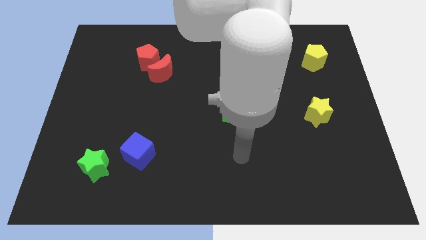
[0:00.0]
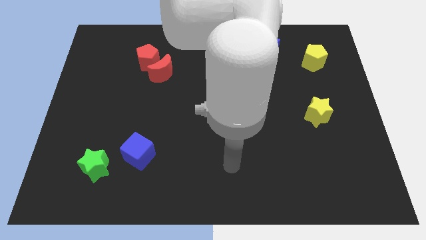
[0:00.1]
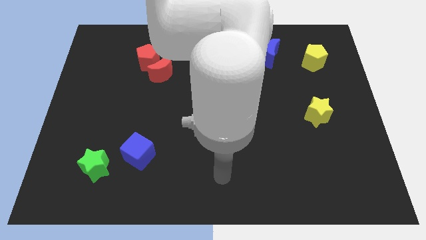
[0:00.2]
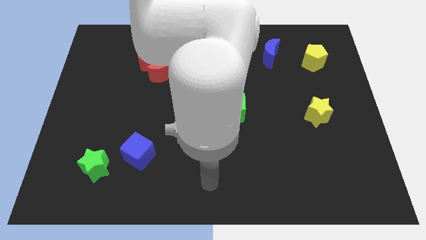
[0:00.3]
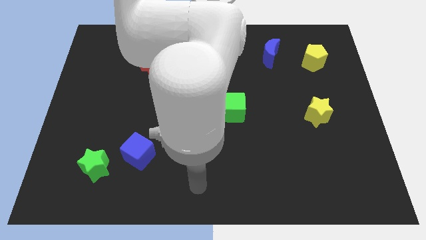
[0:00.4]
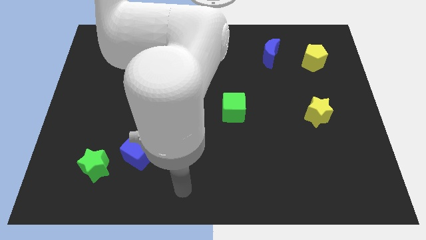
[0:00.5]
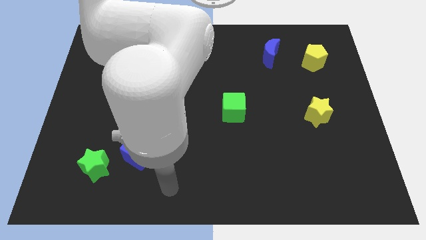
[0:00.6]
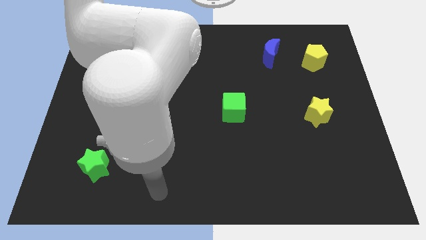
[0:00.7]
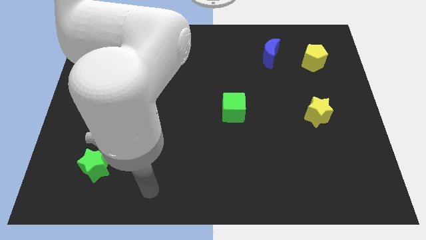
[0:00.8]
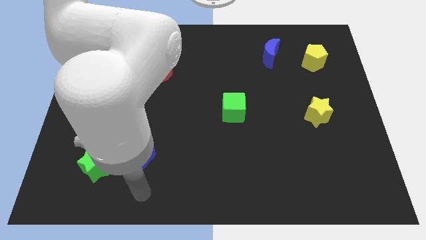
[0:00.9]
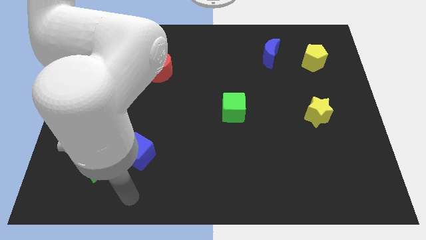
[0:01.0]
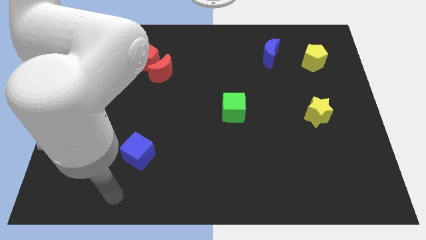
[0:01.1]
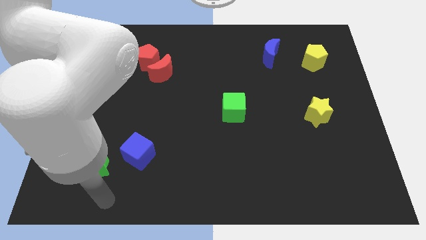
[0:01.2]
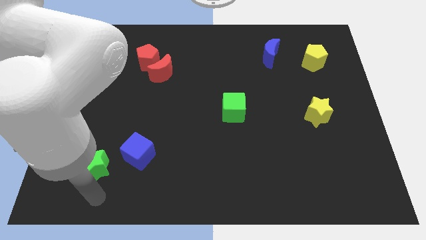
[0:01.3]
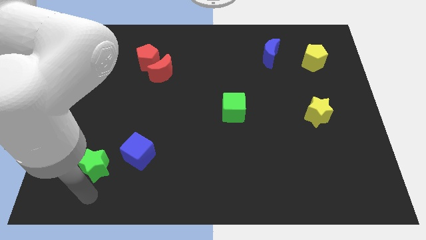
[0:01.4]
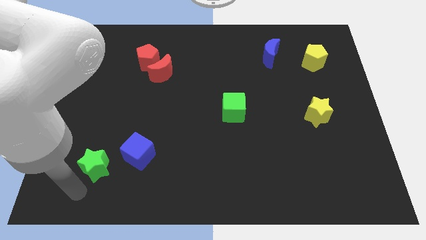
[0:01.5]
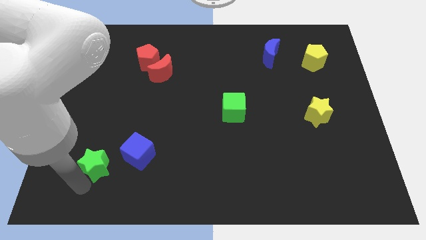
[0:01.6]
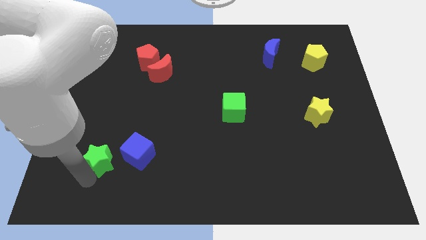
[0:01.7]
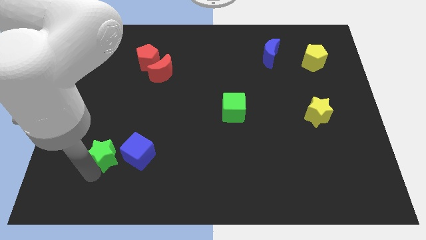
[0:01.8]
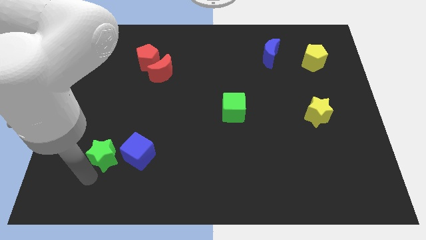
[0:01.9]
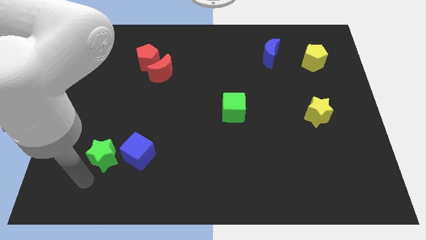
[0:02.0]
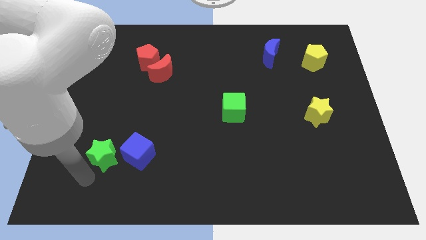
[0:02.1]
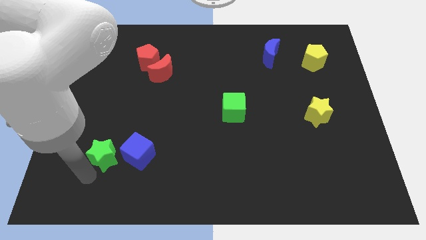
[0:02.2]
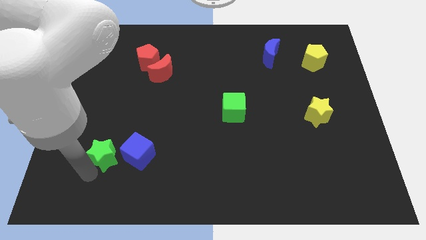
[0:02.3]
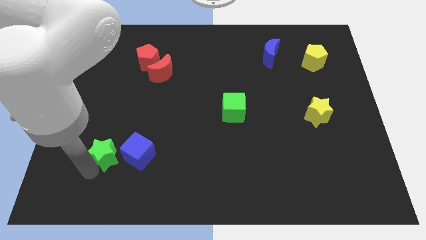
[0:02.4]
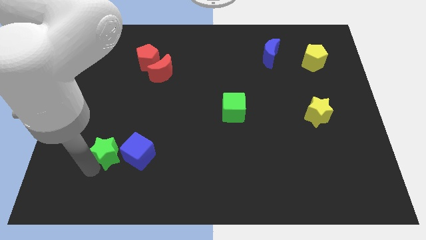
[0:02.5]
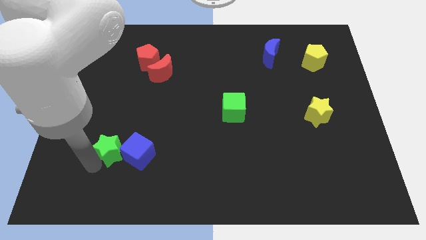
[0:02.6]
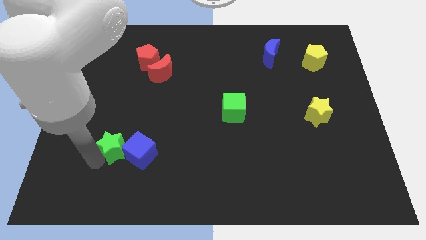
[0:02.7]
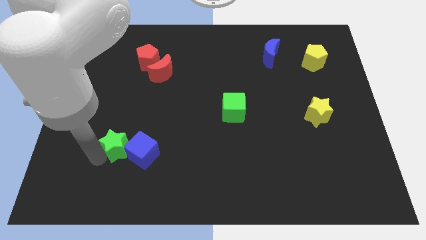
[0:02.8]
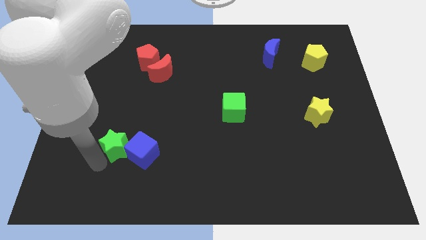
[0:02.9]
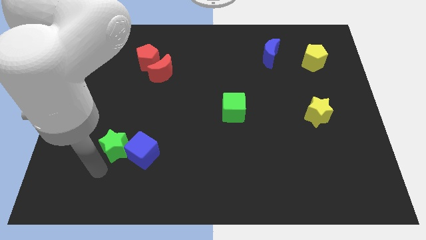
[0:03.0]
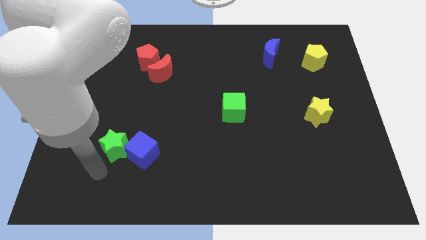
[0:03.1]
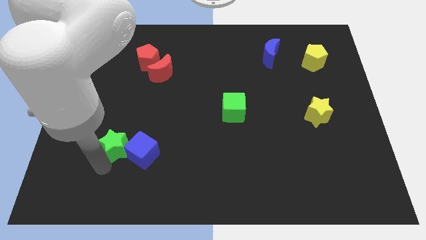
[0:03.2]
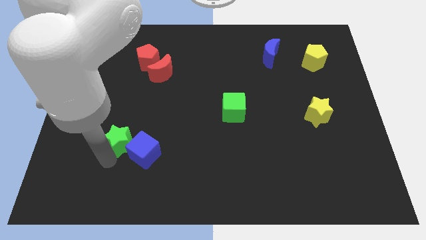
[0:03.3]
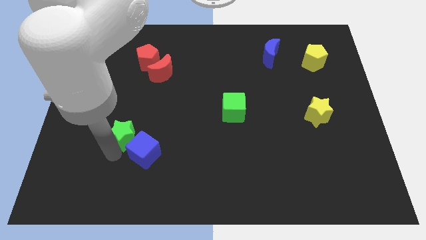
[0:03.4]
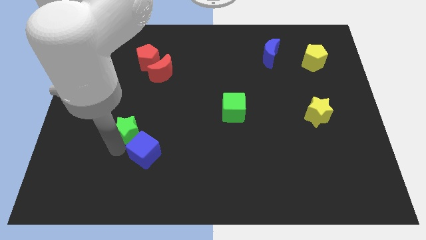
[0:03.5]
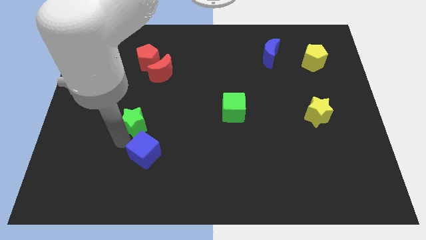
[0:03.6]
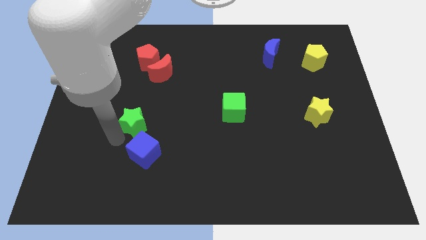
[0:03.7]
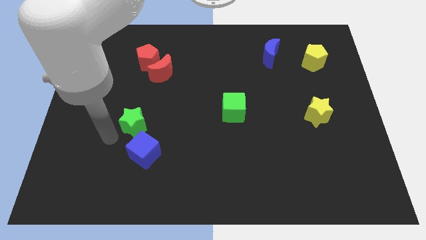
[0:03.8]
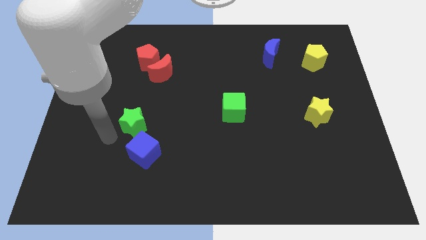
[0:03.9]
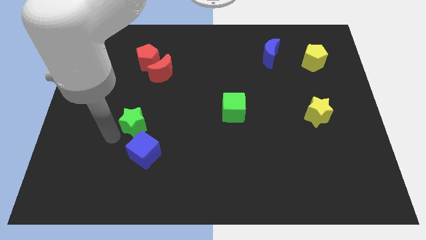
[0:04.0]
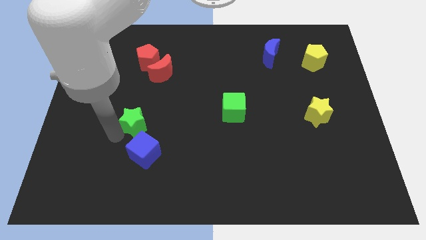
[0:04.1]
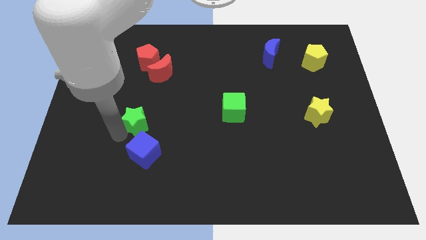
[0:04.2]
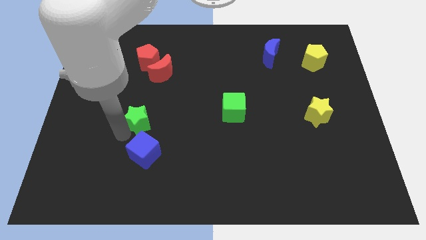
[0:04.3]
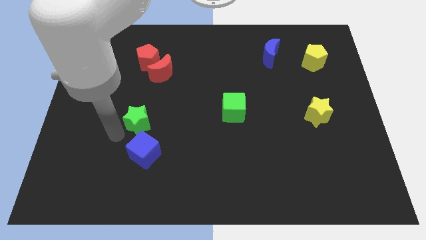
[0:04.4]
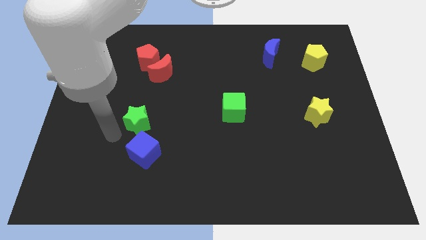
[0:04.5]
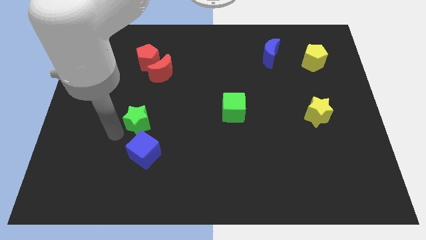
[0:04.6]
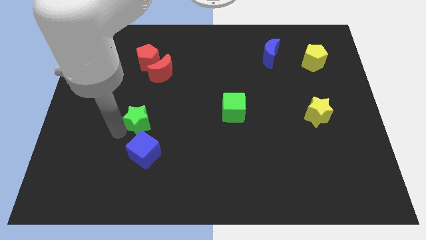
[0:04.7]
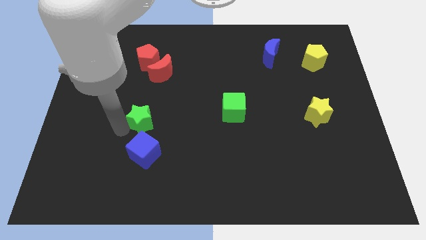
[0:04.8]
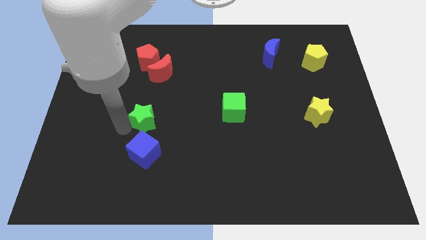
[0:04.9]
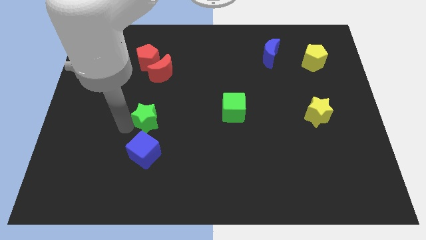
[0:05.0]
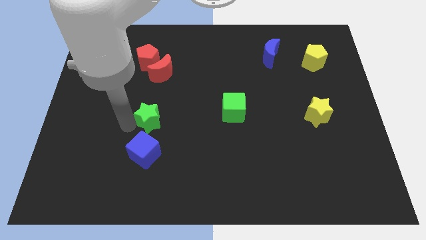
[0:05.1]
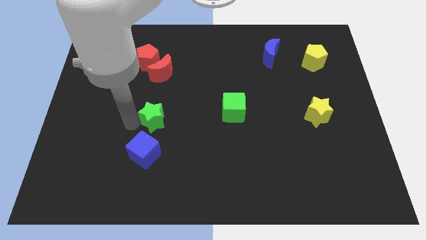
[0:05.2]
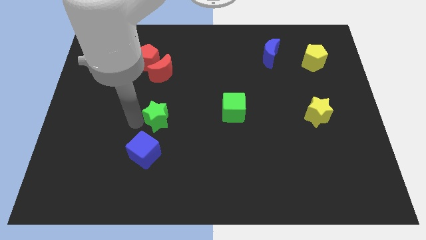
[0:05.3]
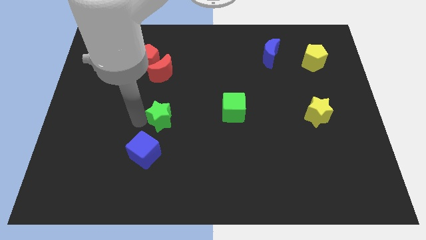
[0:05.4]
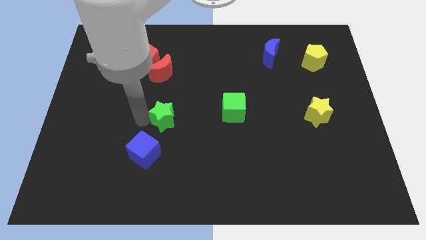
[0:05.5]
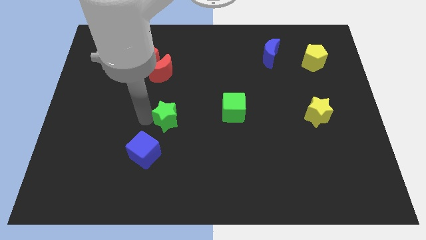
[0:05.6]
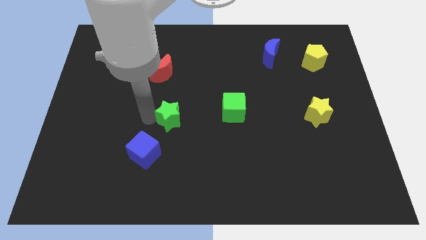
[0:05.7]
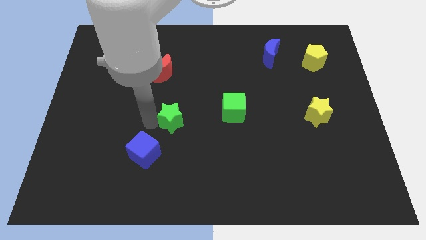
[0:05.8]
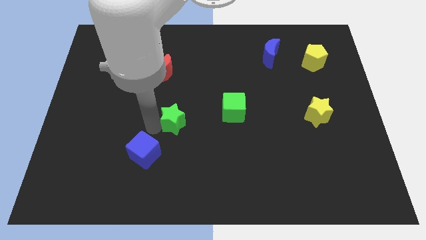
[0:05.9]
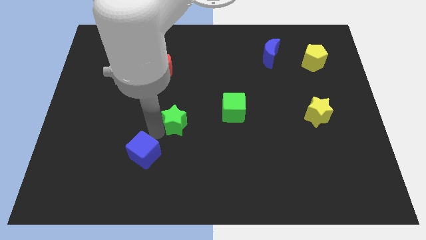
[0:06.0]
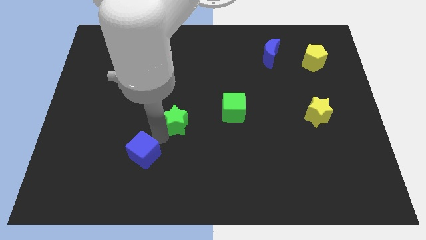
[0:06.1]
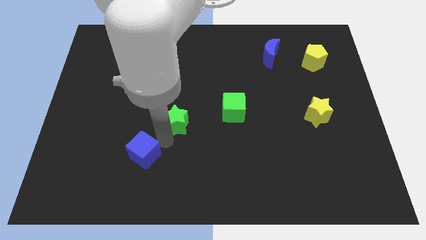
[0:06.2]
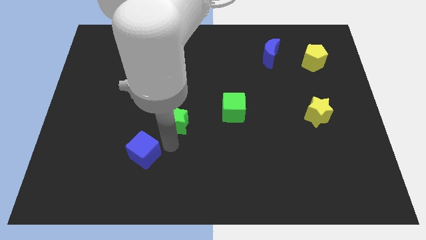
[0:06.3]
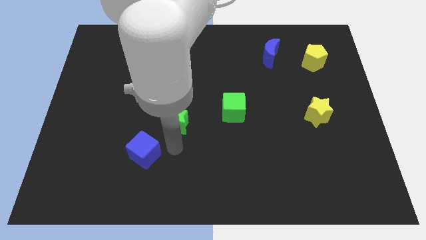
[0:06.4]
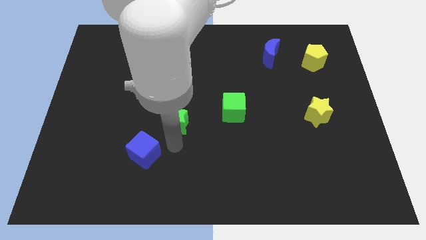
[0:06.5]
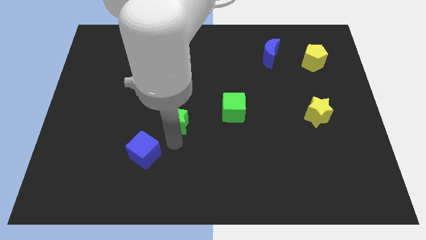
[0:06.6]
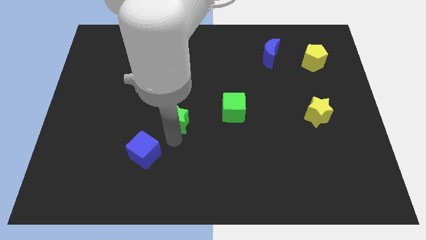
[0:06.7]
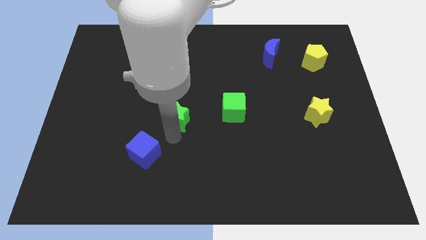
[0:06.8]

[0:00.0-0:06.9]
slide the green star diagonally up and right

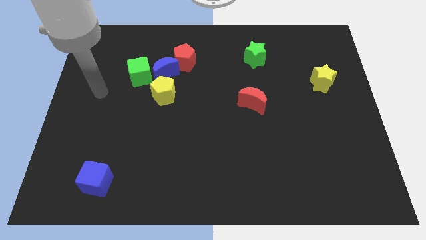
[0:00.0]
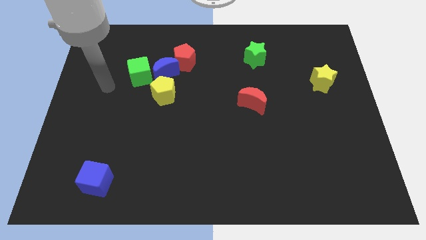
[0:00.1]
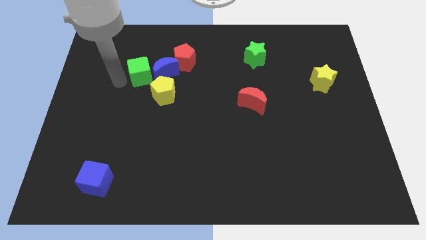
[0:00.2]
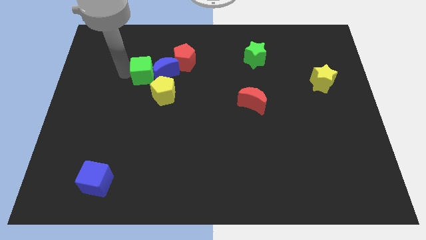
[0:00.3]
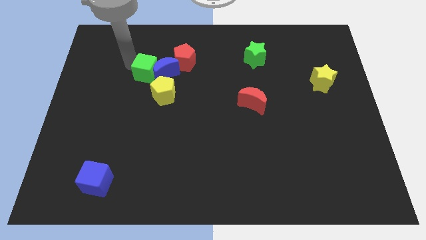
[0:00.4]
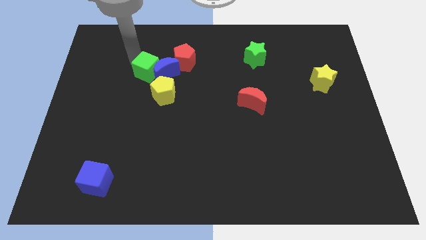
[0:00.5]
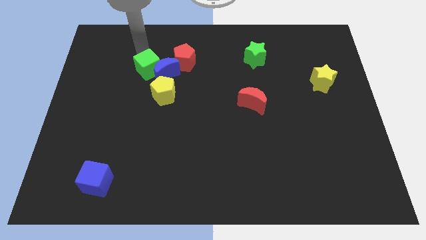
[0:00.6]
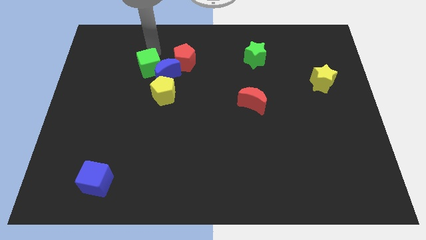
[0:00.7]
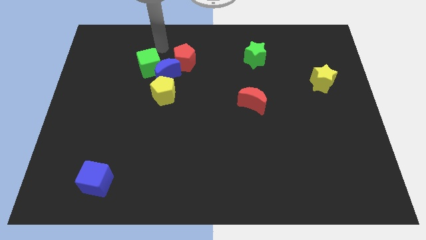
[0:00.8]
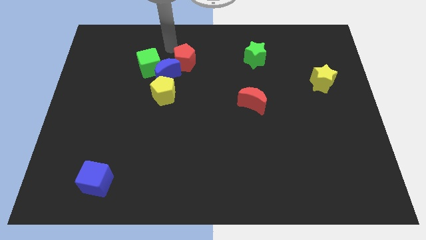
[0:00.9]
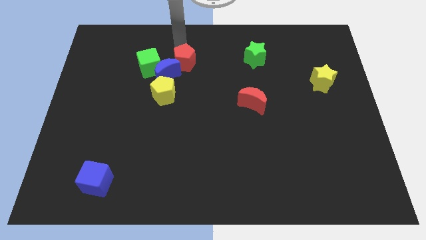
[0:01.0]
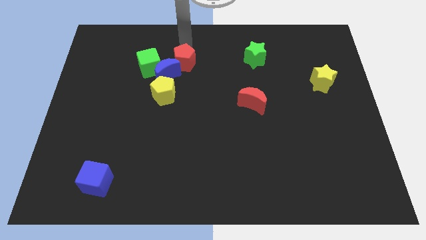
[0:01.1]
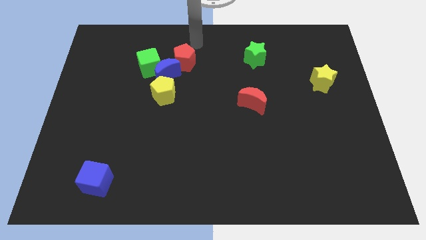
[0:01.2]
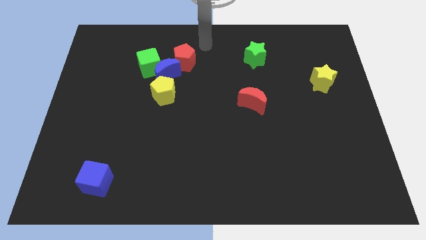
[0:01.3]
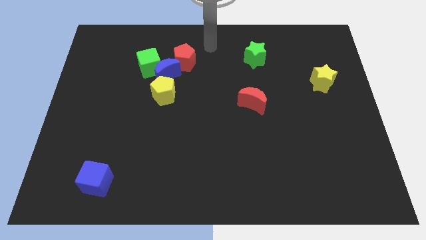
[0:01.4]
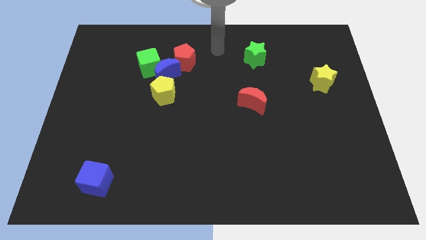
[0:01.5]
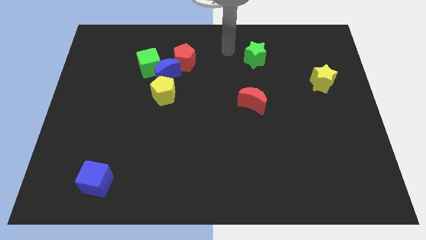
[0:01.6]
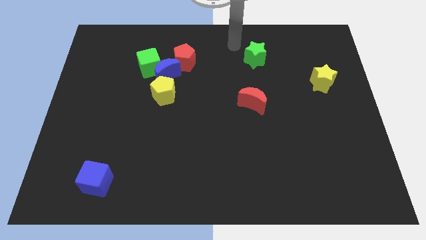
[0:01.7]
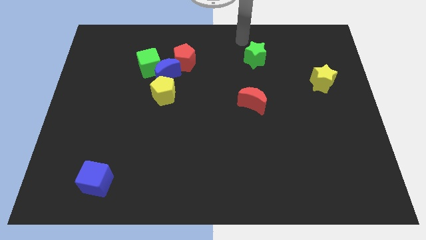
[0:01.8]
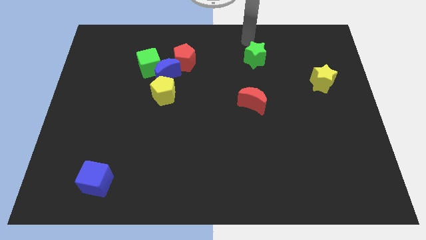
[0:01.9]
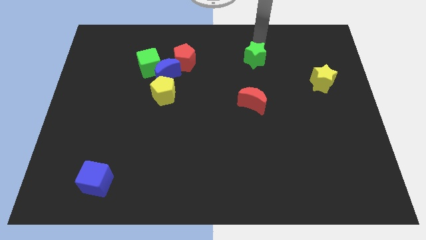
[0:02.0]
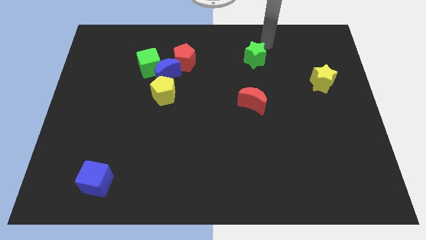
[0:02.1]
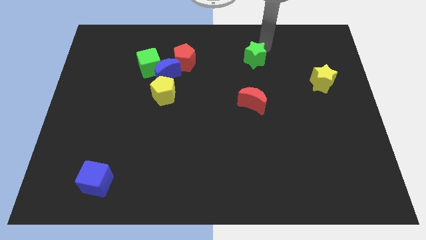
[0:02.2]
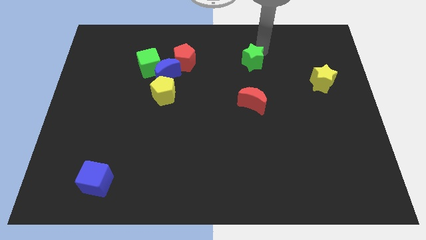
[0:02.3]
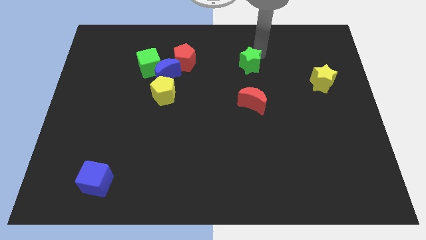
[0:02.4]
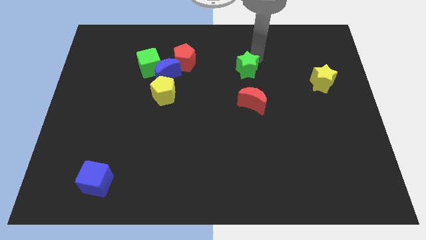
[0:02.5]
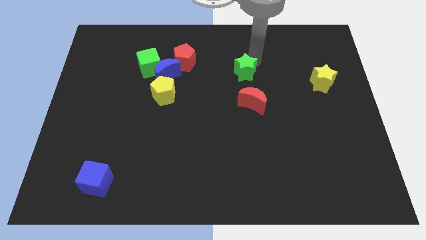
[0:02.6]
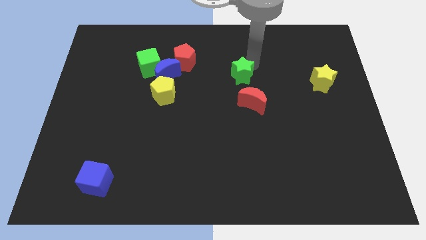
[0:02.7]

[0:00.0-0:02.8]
slightly slide the green star downwards and to the left
